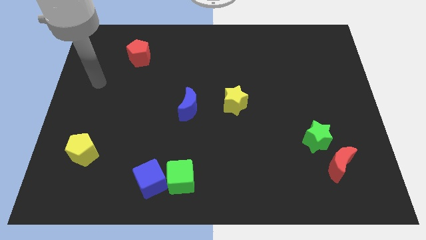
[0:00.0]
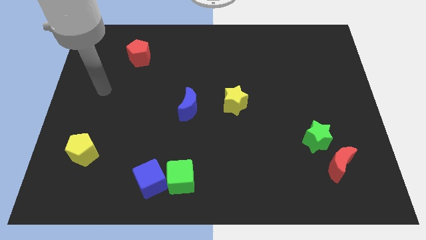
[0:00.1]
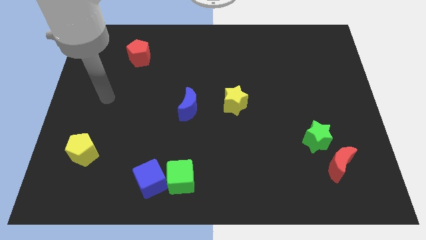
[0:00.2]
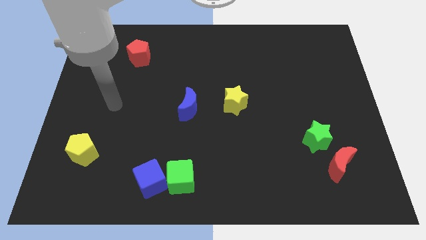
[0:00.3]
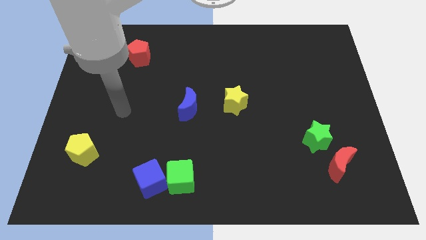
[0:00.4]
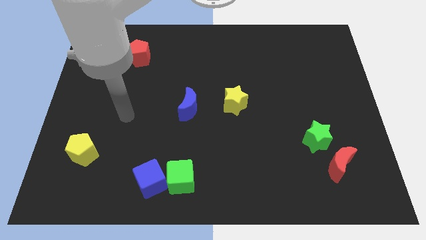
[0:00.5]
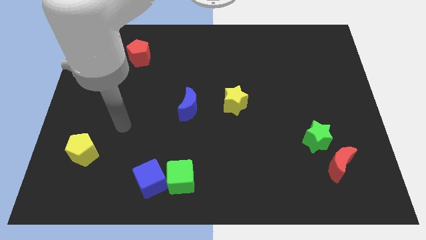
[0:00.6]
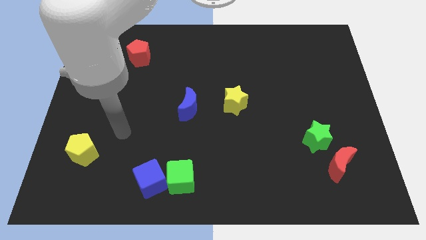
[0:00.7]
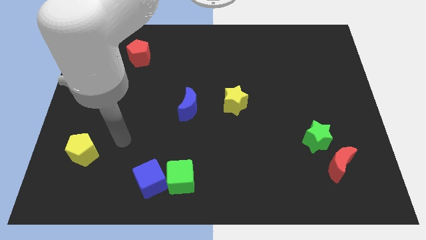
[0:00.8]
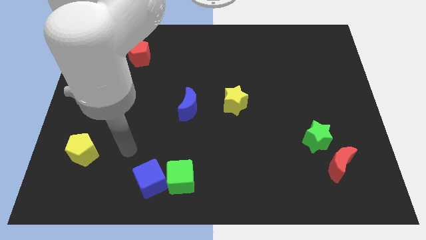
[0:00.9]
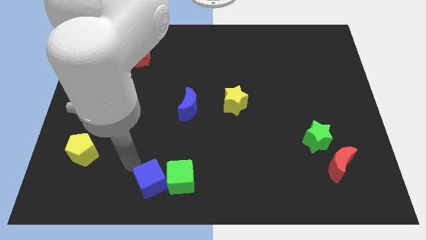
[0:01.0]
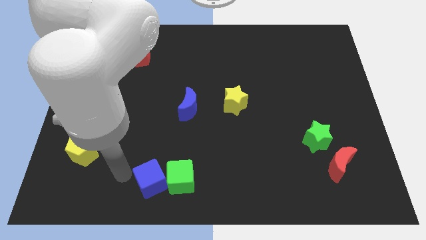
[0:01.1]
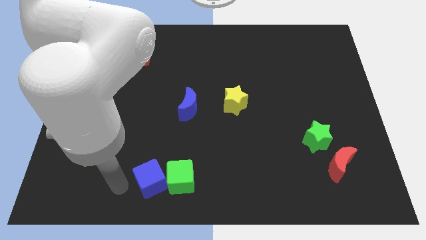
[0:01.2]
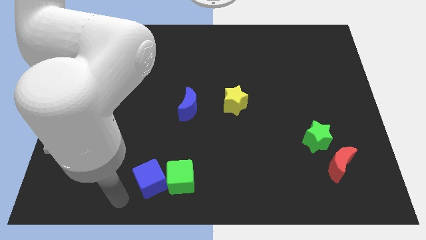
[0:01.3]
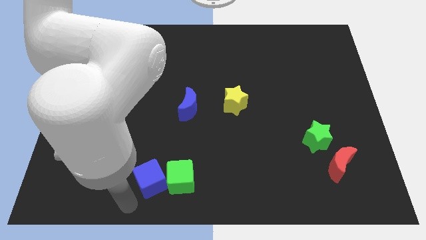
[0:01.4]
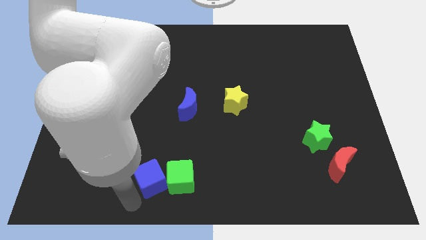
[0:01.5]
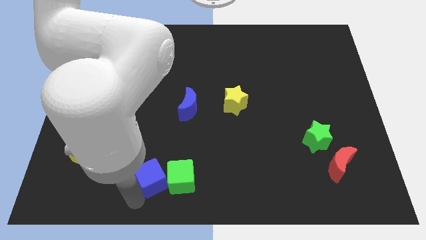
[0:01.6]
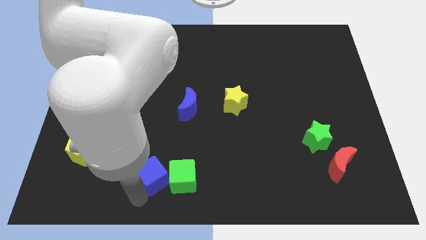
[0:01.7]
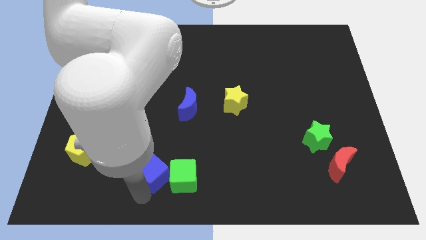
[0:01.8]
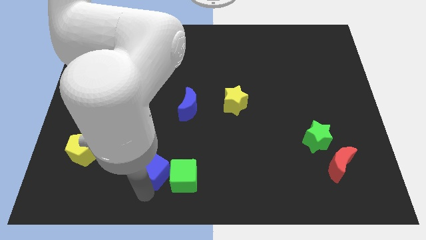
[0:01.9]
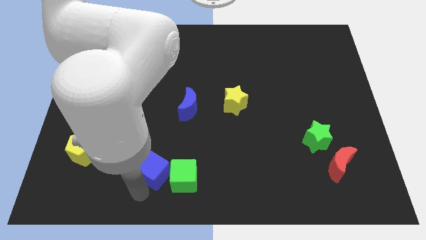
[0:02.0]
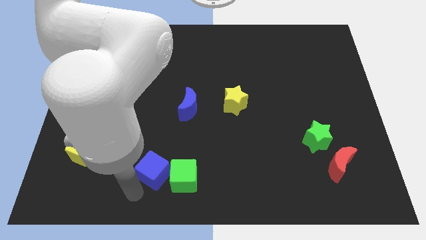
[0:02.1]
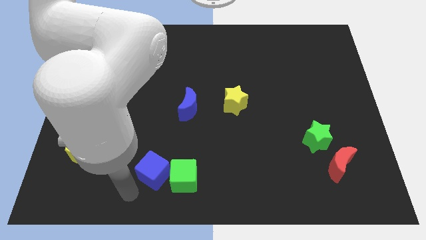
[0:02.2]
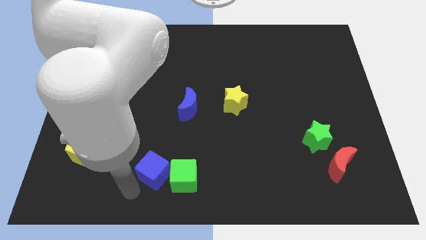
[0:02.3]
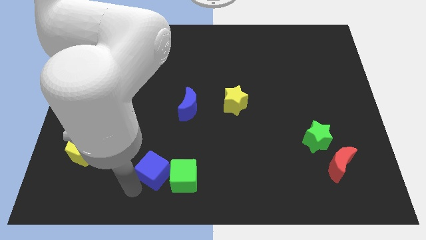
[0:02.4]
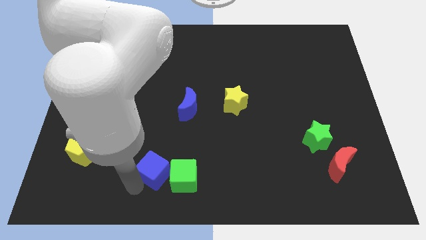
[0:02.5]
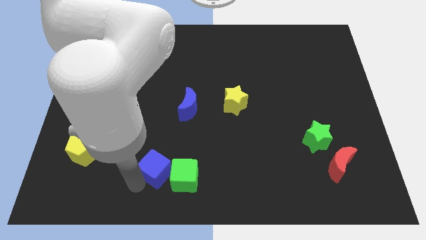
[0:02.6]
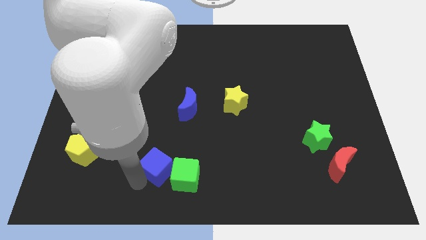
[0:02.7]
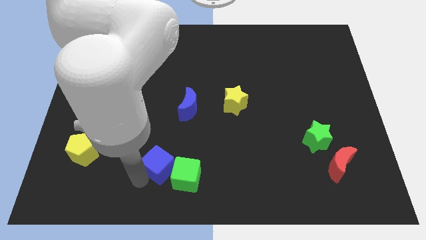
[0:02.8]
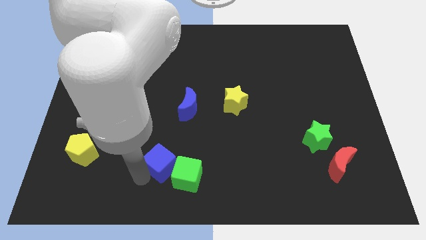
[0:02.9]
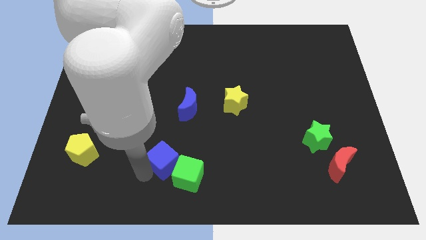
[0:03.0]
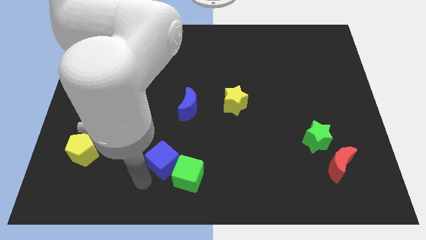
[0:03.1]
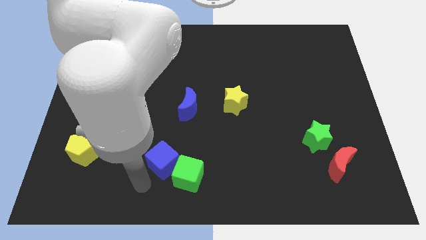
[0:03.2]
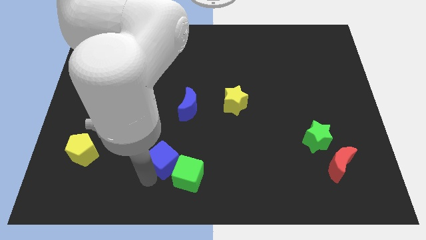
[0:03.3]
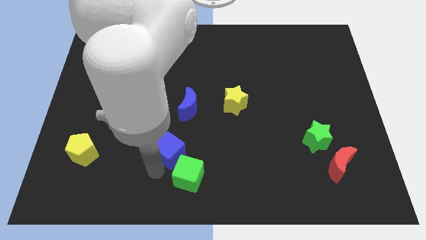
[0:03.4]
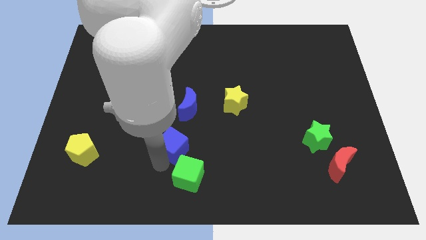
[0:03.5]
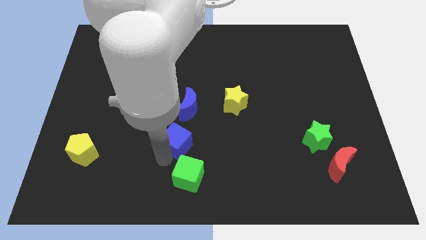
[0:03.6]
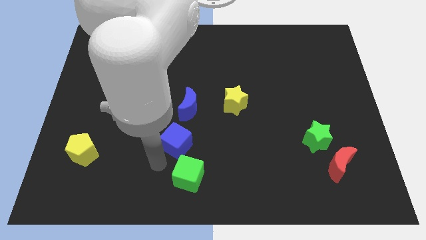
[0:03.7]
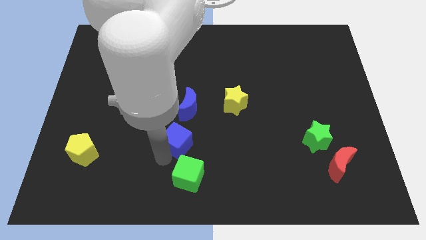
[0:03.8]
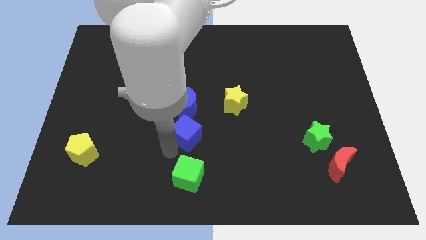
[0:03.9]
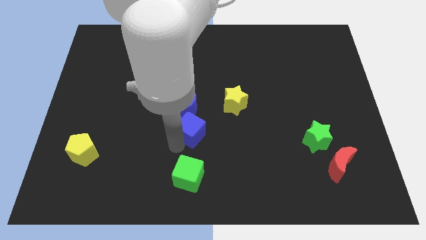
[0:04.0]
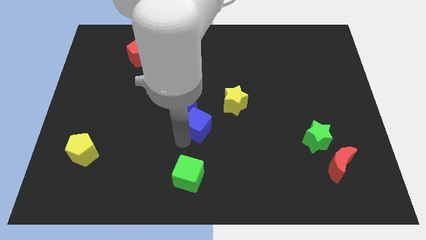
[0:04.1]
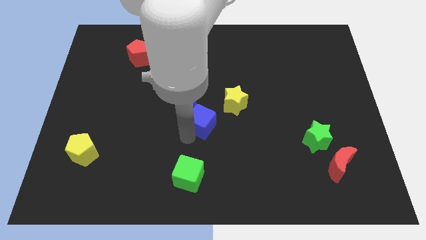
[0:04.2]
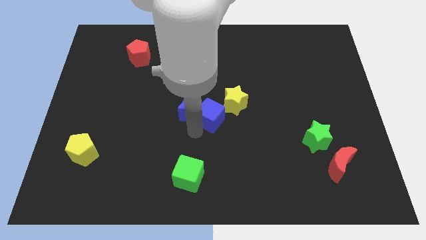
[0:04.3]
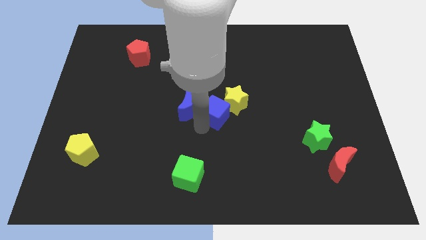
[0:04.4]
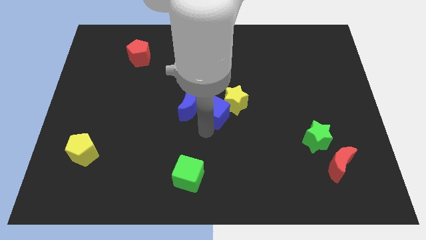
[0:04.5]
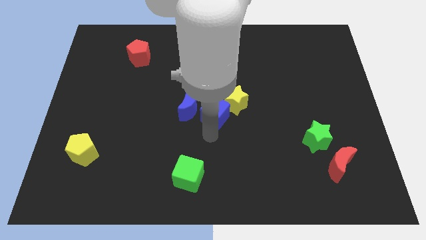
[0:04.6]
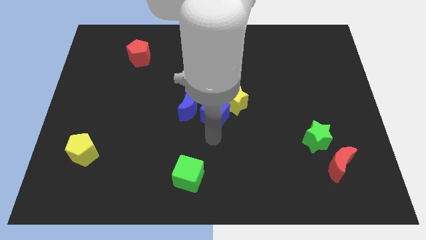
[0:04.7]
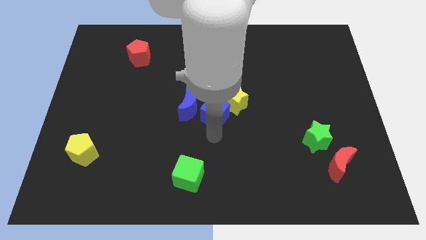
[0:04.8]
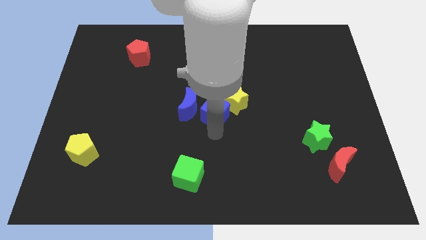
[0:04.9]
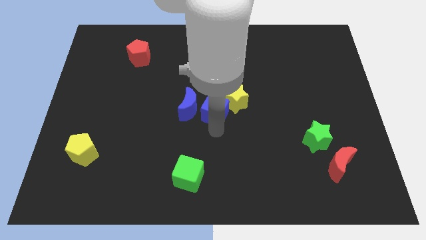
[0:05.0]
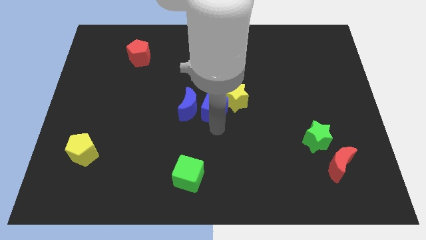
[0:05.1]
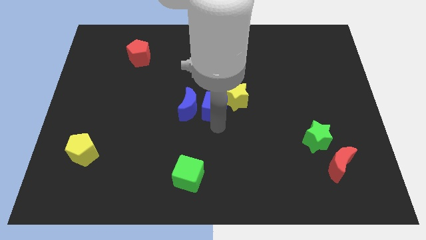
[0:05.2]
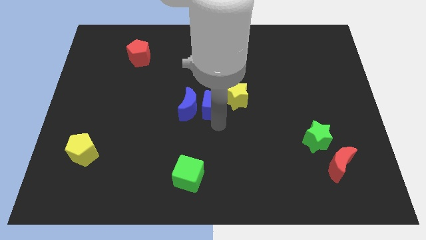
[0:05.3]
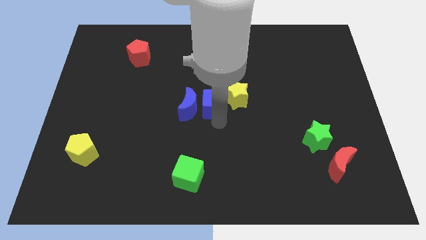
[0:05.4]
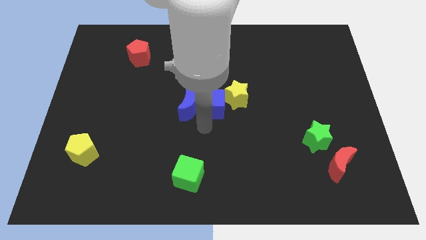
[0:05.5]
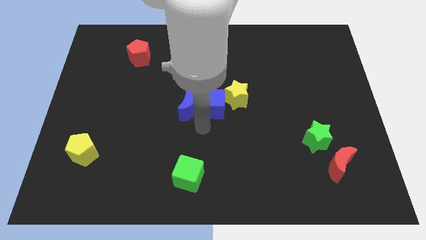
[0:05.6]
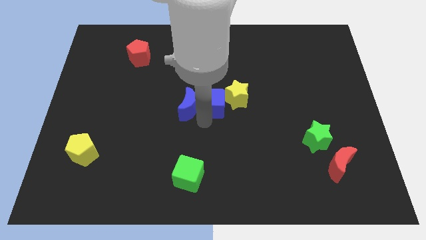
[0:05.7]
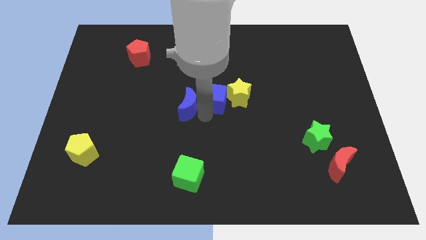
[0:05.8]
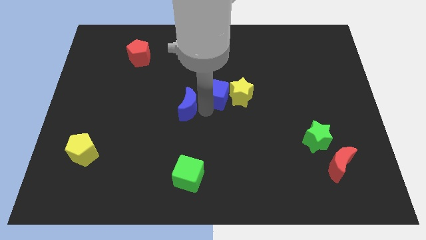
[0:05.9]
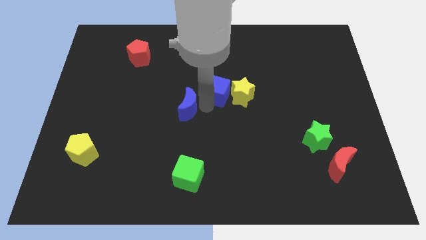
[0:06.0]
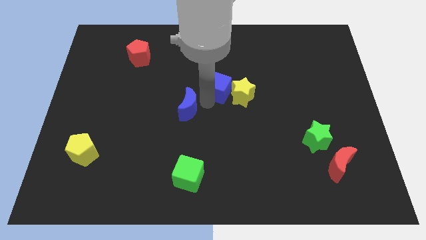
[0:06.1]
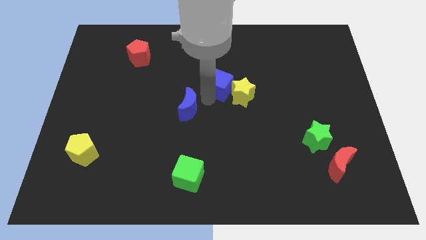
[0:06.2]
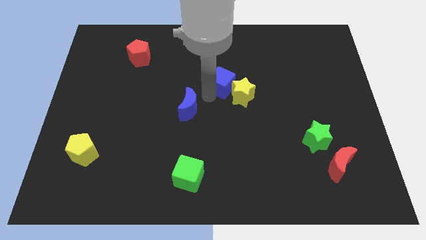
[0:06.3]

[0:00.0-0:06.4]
slide the blue cube above the yellow star

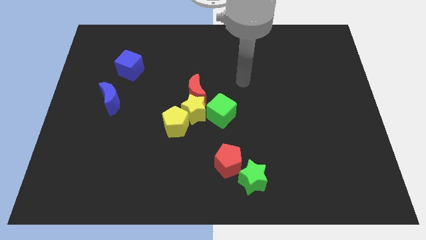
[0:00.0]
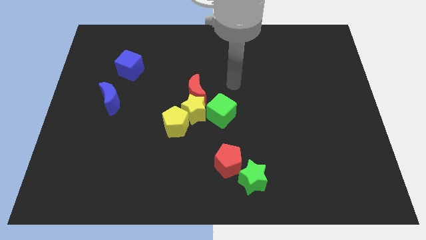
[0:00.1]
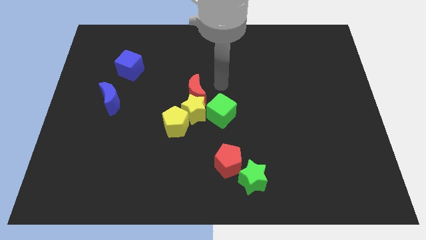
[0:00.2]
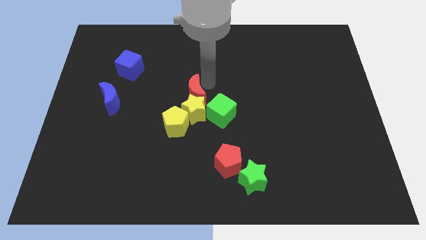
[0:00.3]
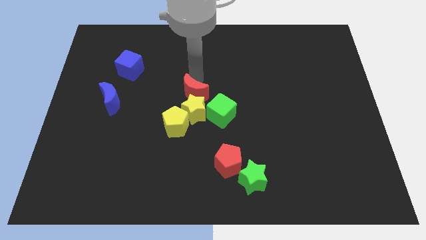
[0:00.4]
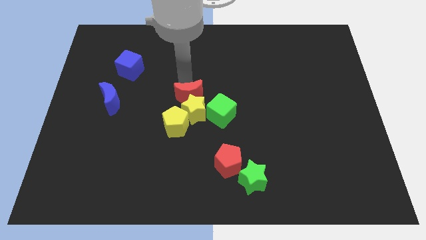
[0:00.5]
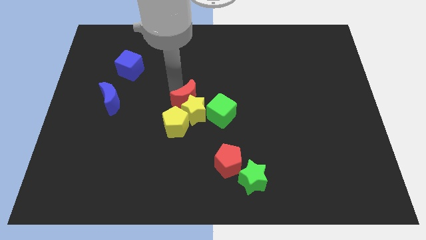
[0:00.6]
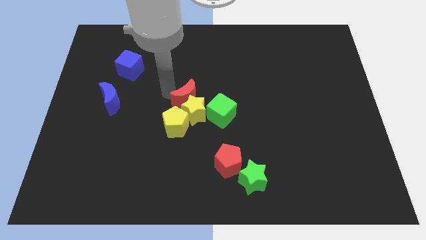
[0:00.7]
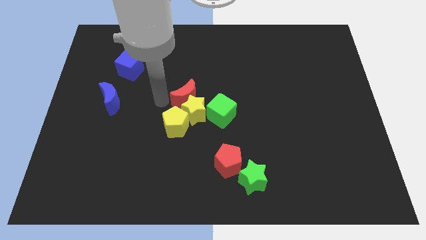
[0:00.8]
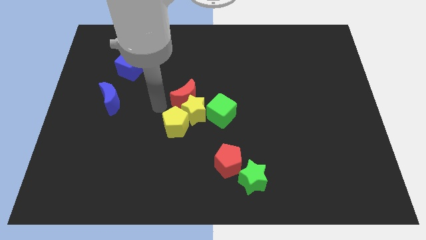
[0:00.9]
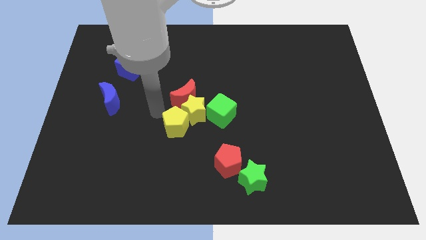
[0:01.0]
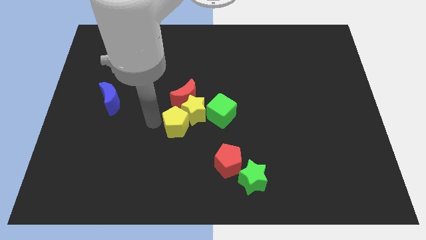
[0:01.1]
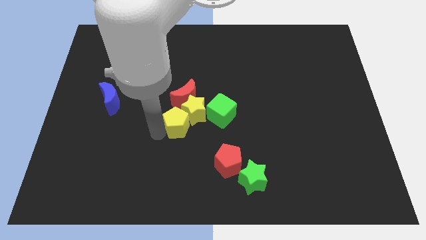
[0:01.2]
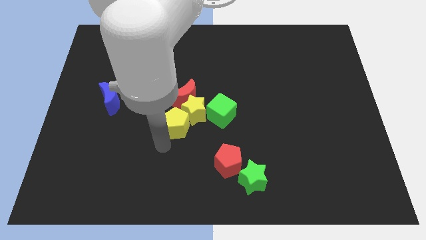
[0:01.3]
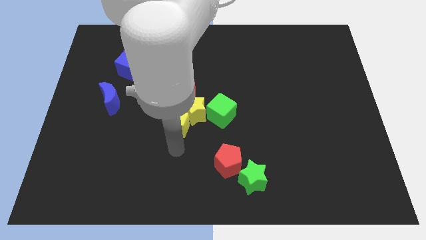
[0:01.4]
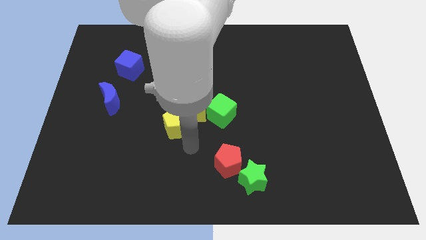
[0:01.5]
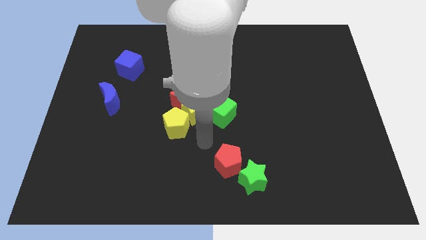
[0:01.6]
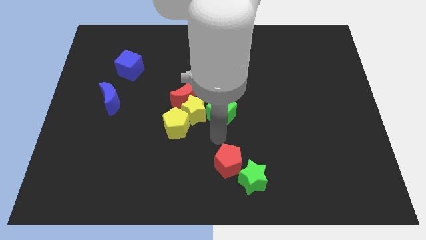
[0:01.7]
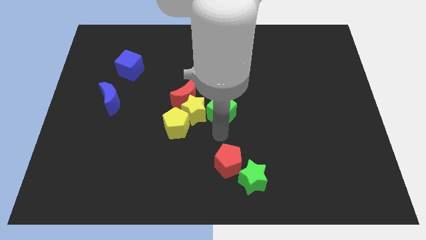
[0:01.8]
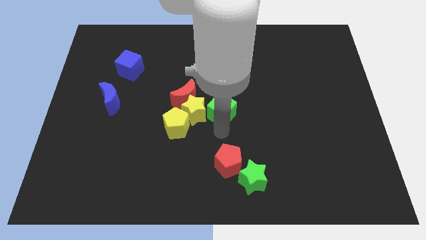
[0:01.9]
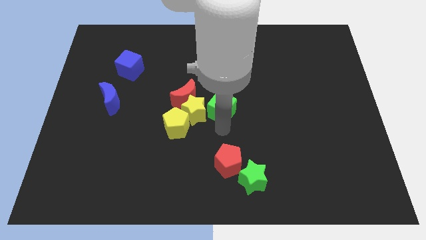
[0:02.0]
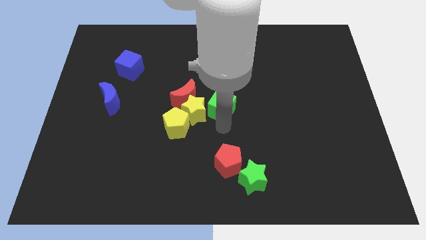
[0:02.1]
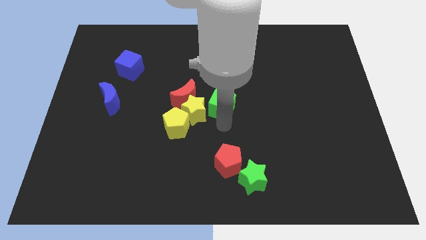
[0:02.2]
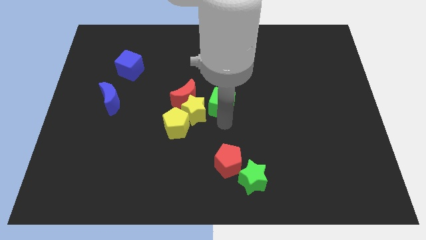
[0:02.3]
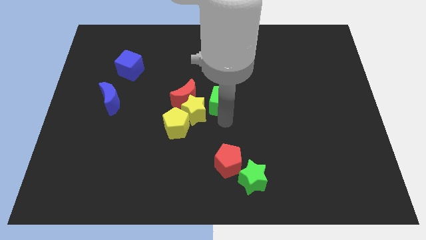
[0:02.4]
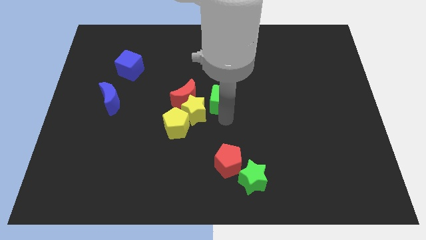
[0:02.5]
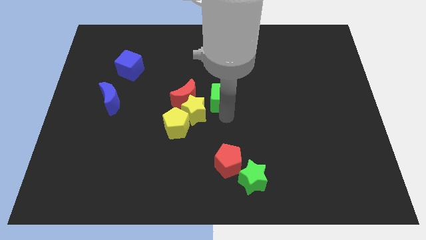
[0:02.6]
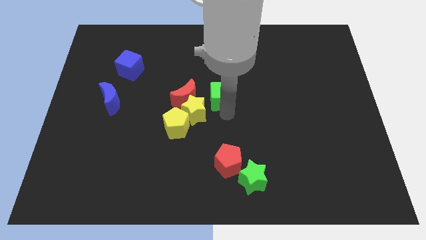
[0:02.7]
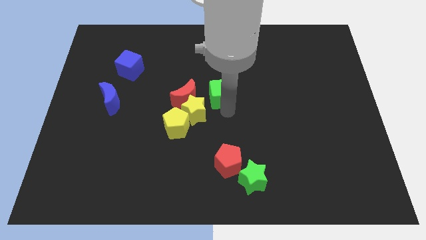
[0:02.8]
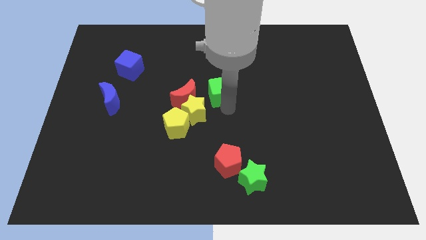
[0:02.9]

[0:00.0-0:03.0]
put the green cube to the top right of the red moon
